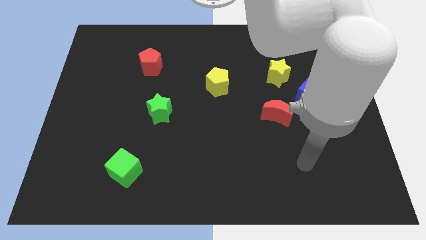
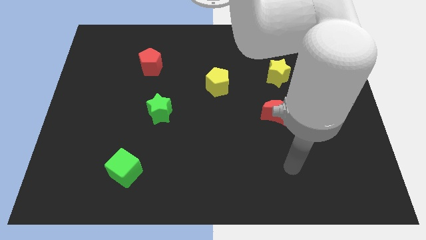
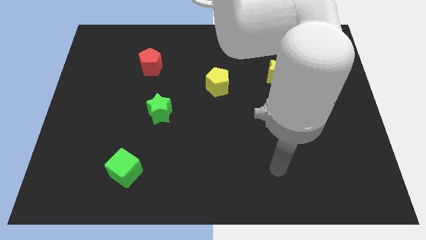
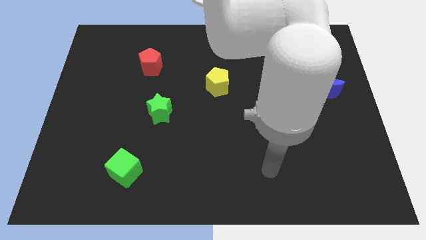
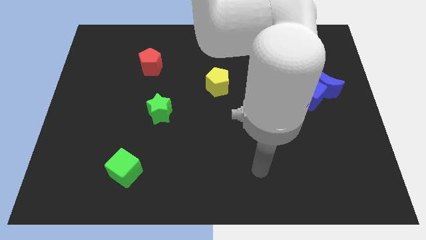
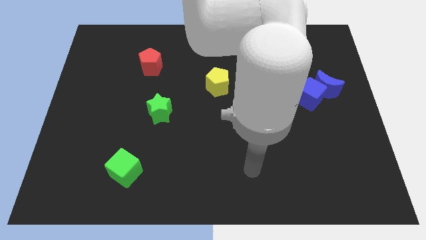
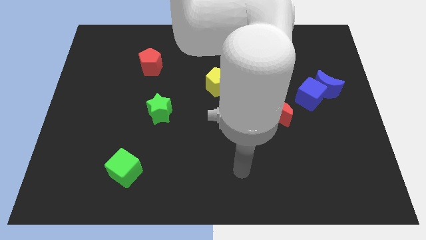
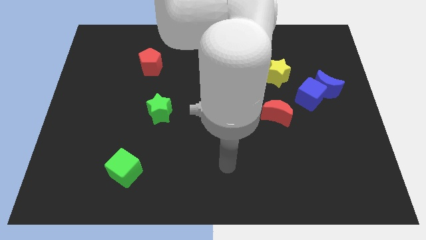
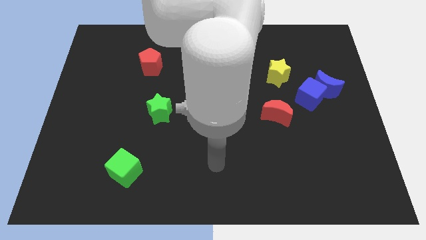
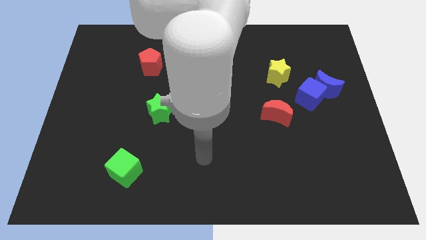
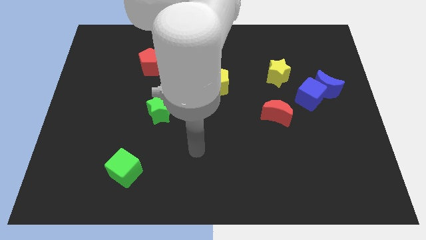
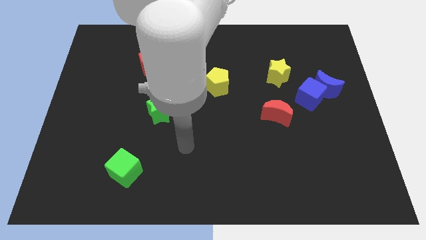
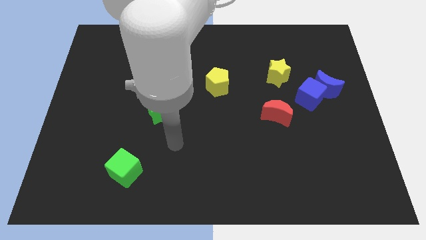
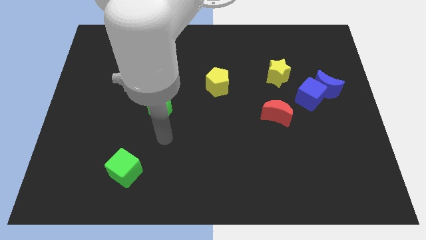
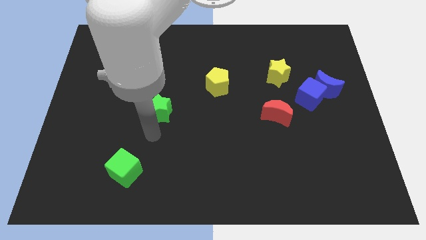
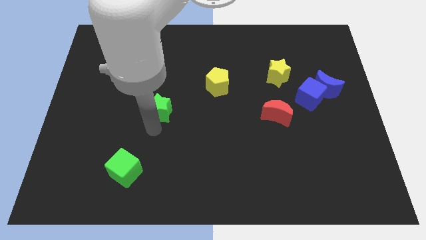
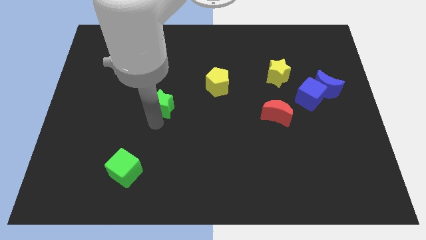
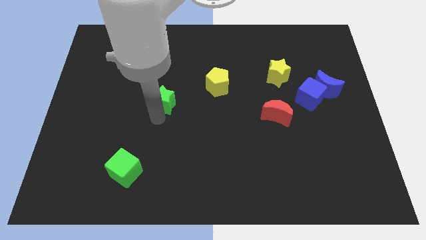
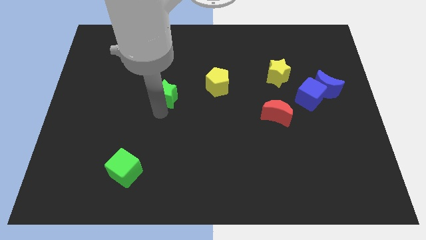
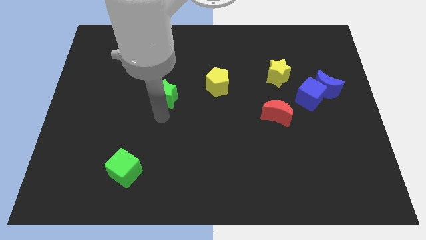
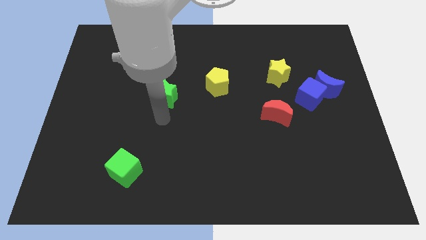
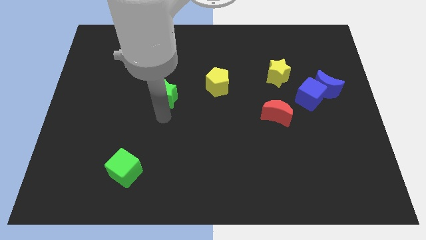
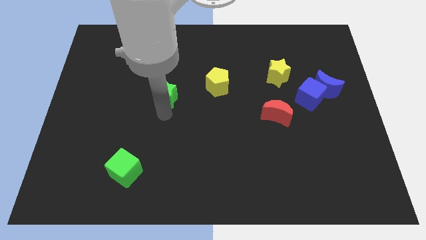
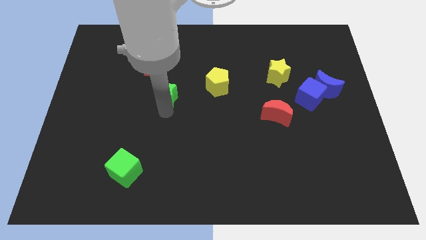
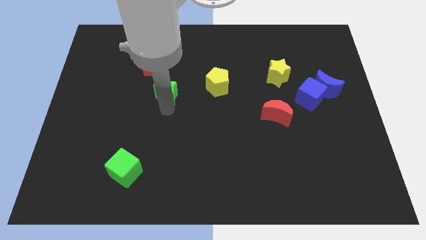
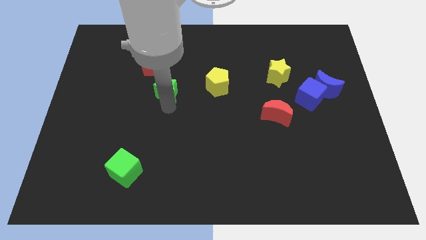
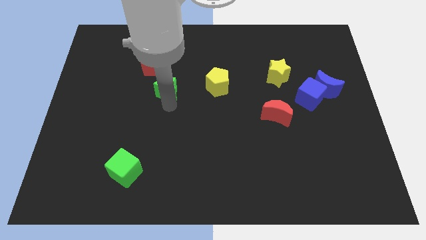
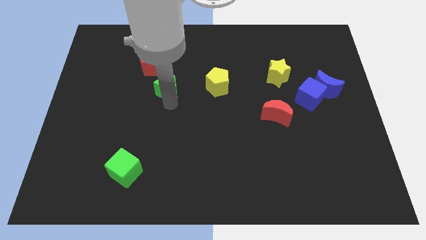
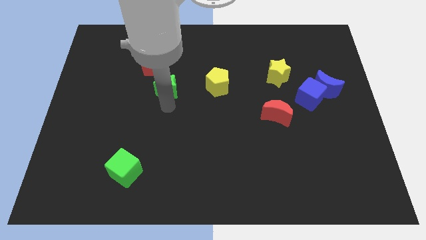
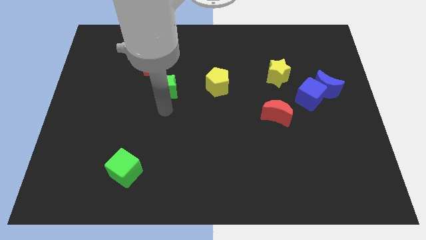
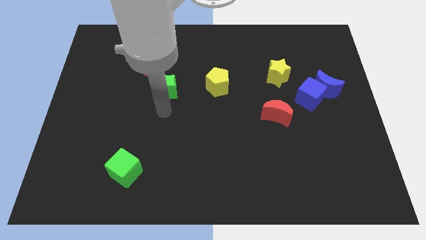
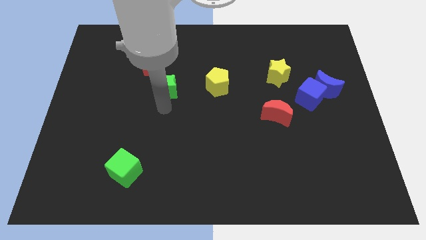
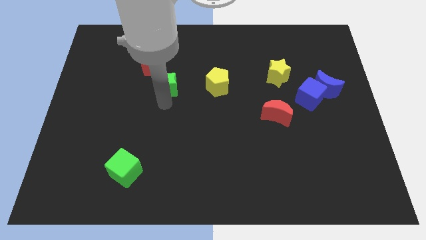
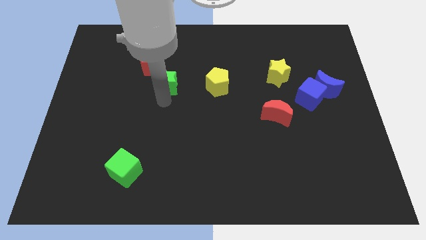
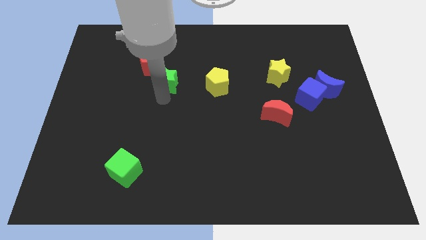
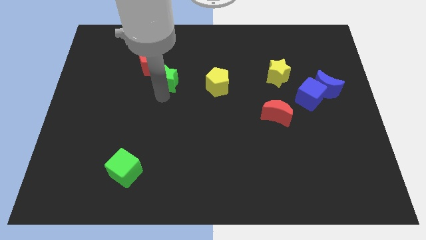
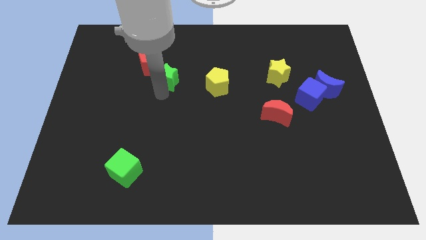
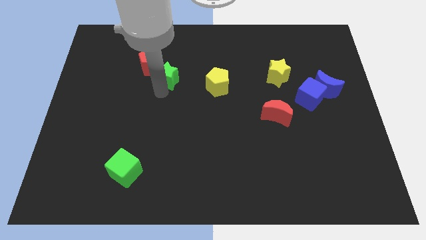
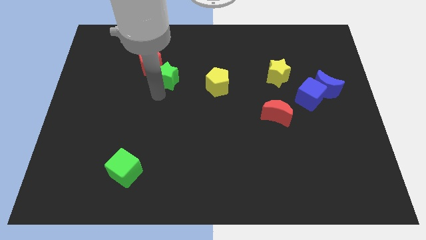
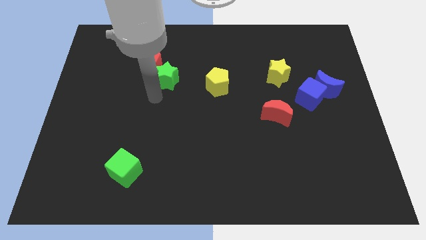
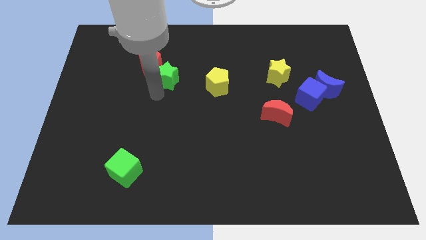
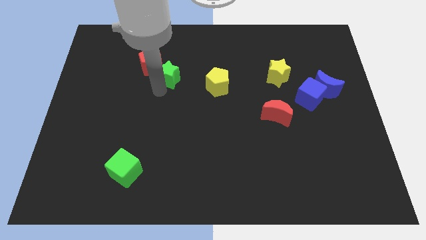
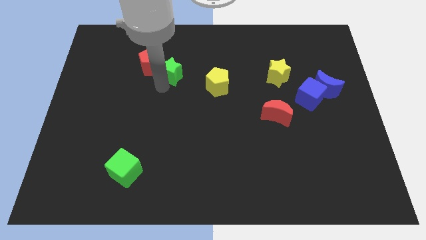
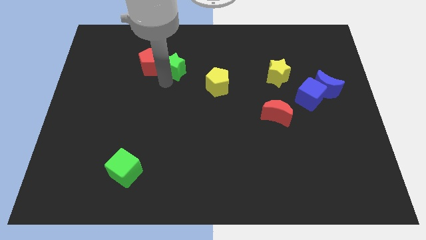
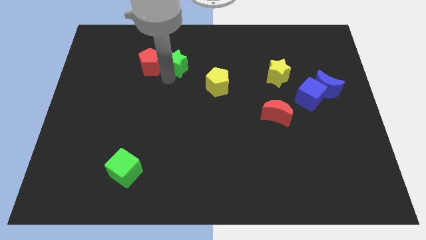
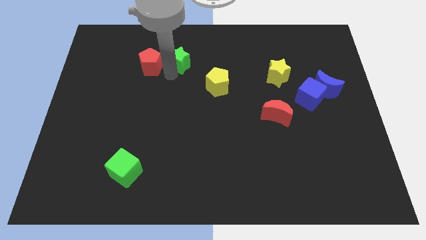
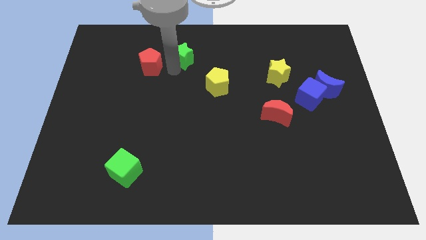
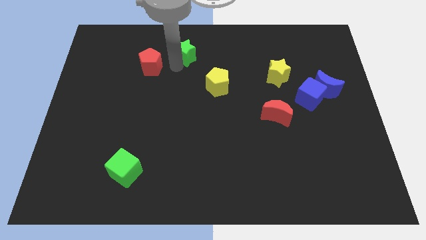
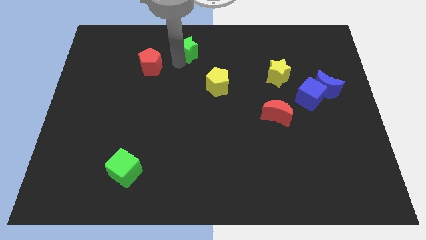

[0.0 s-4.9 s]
push the green star to the top

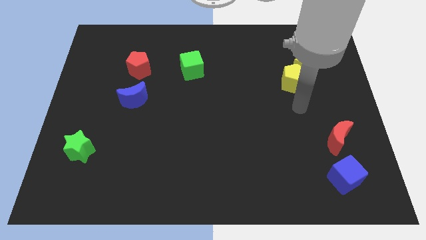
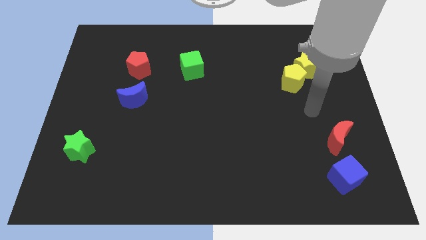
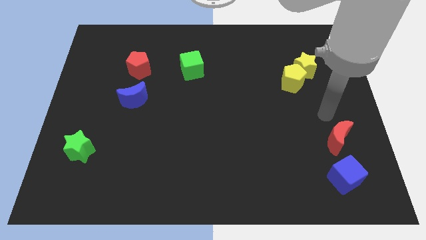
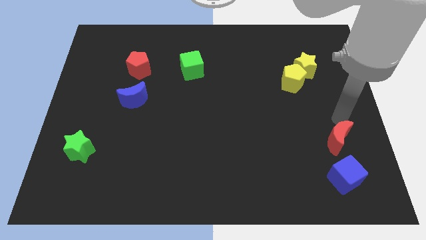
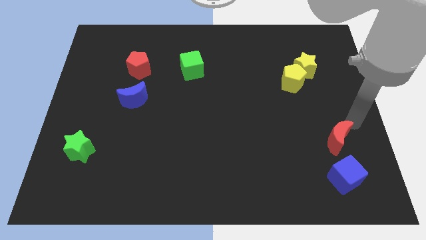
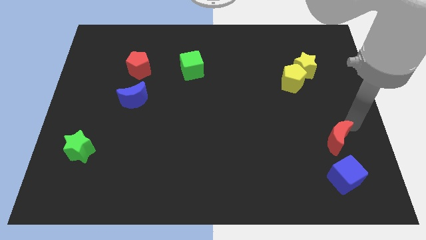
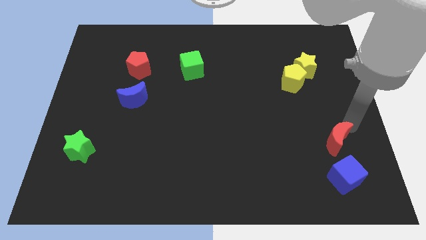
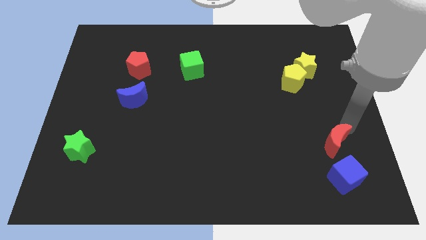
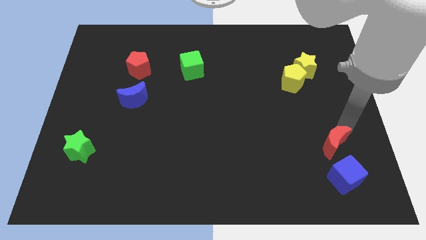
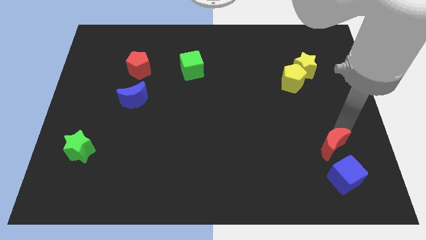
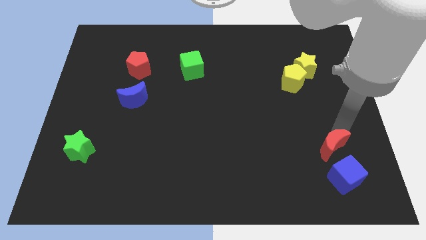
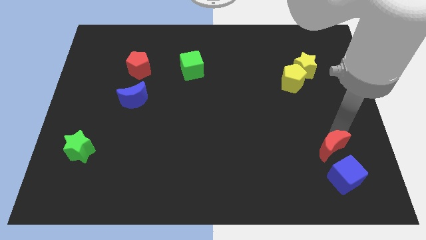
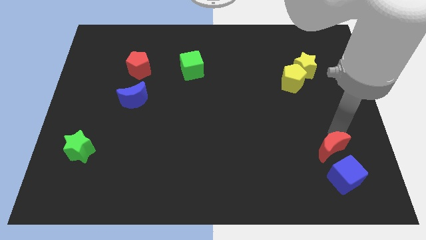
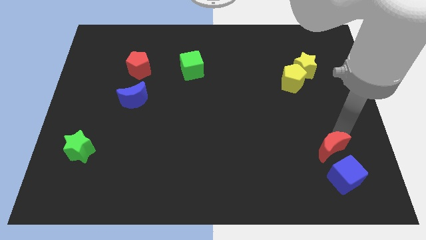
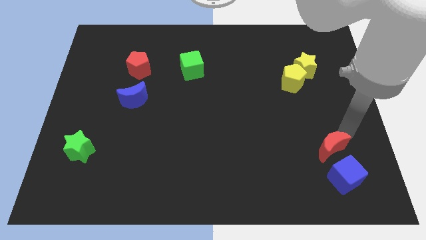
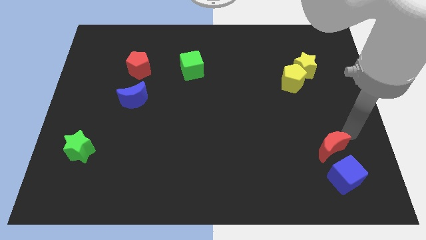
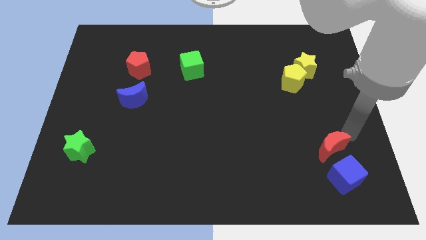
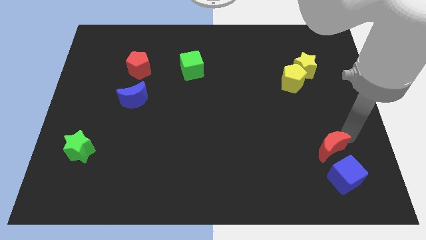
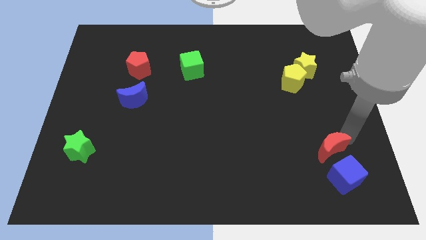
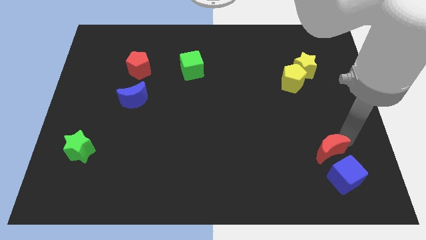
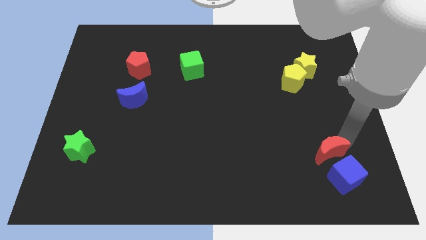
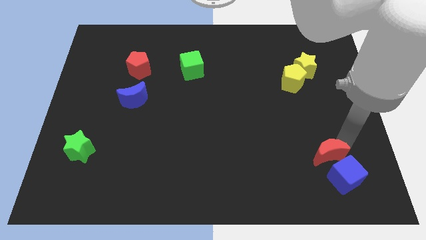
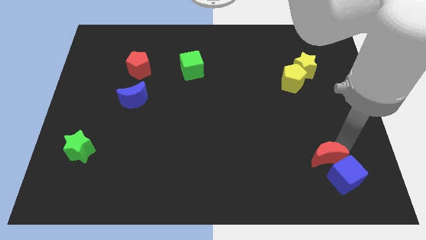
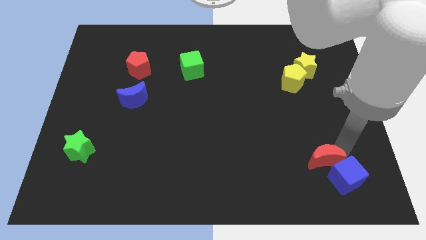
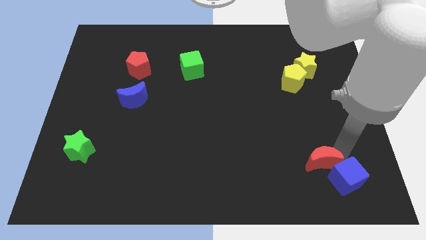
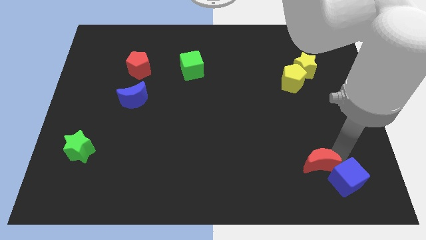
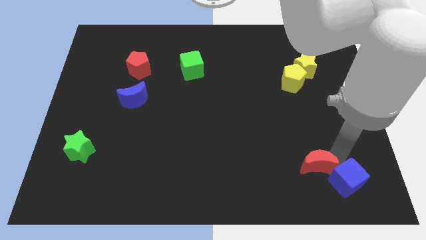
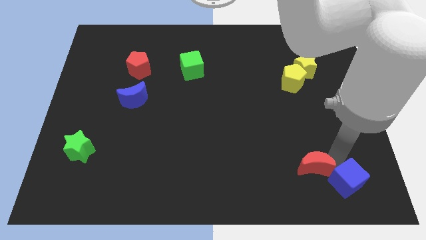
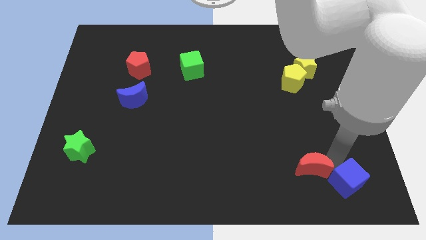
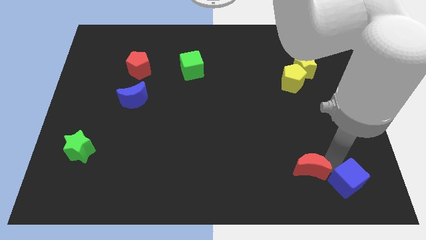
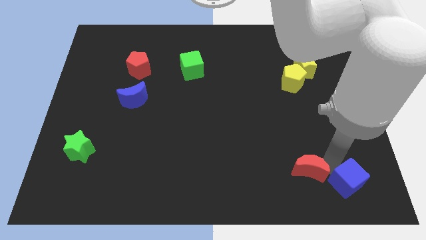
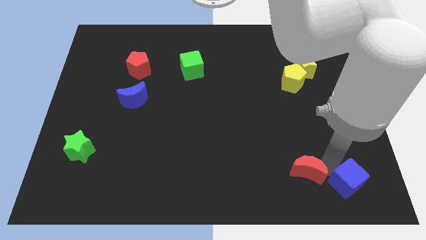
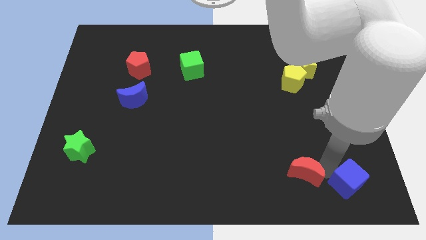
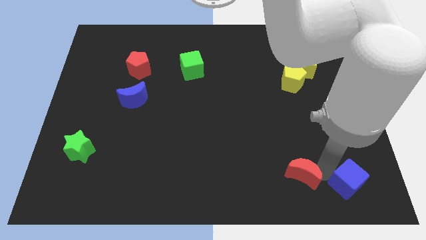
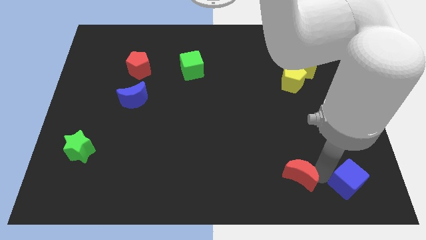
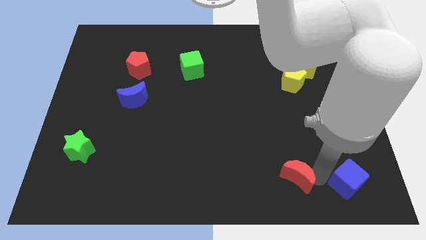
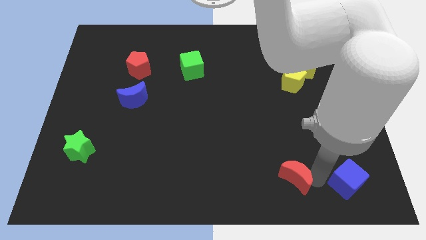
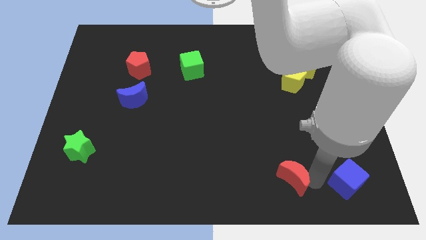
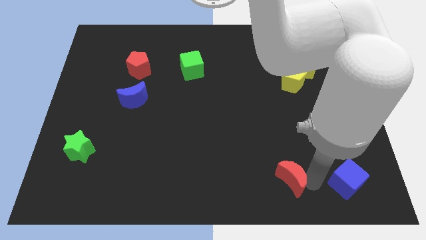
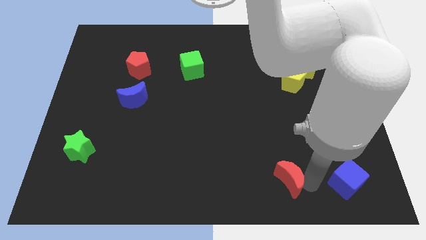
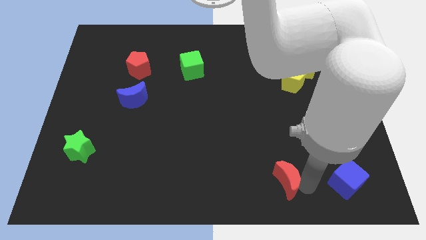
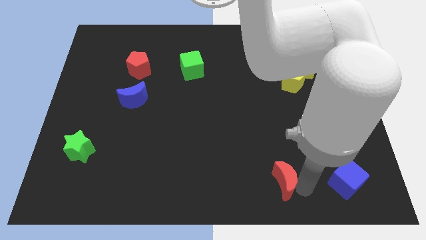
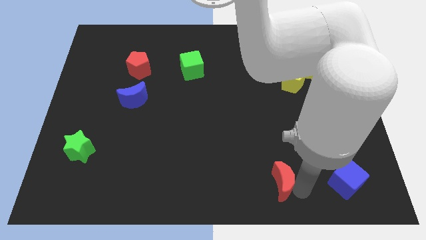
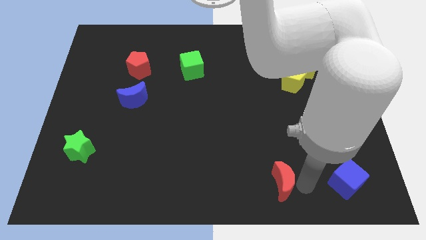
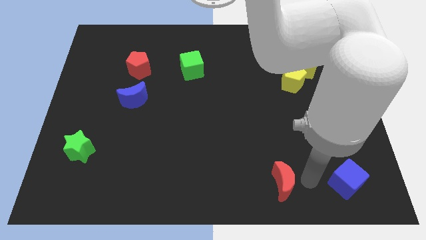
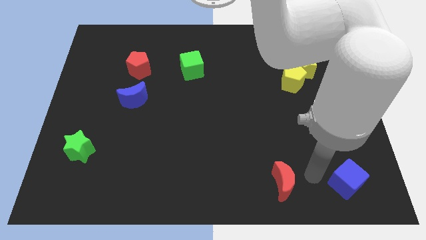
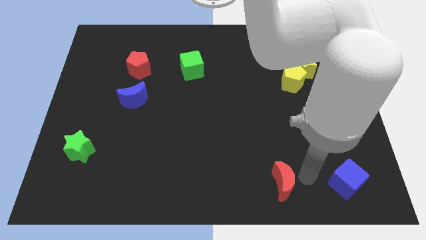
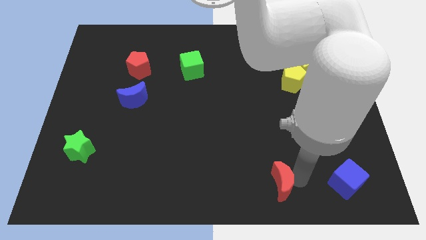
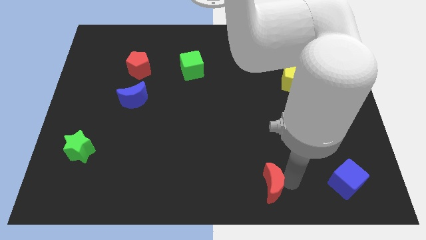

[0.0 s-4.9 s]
slide the red moon to the bottom
